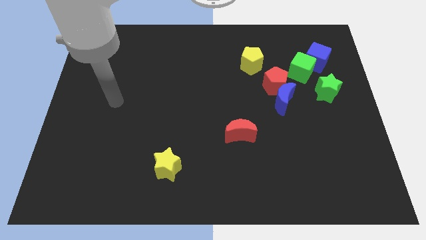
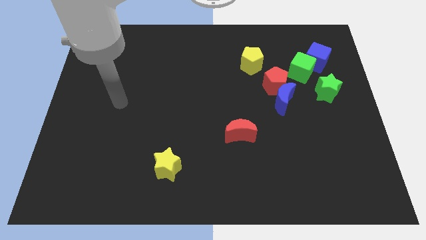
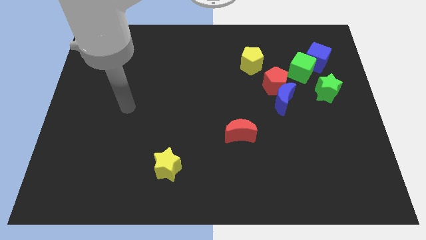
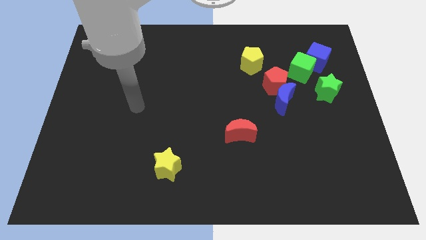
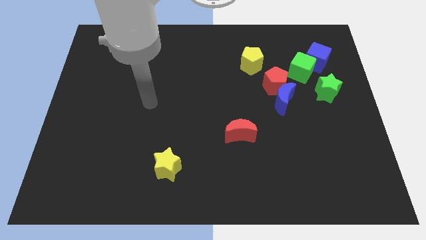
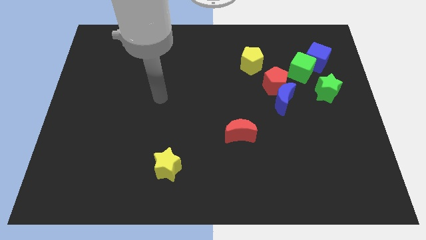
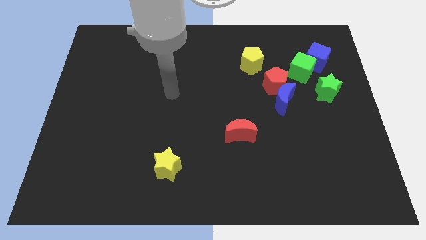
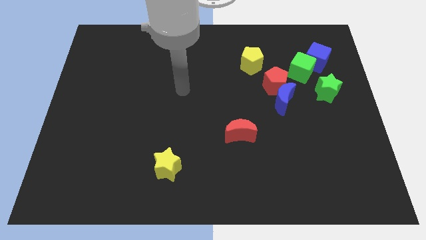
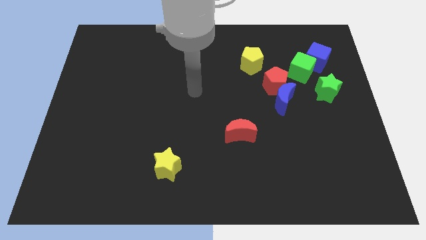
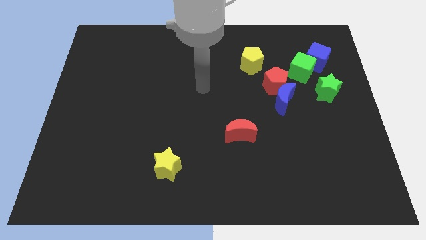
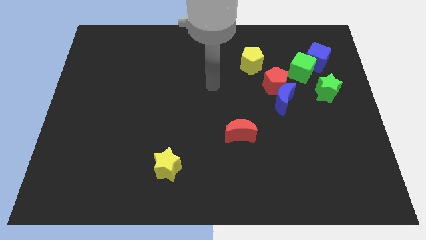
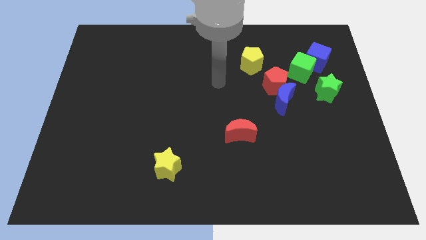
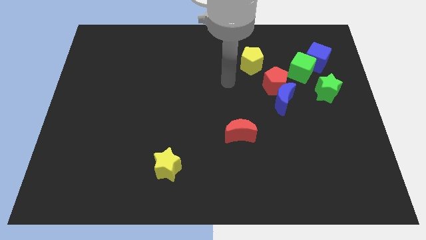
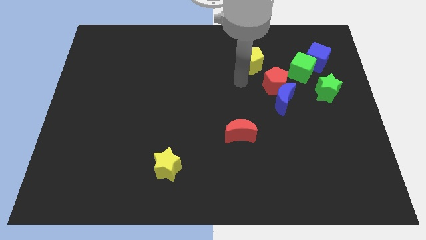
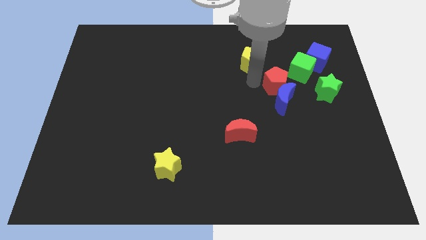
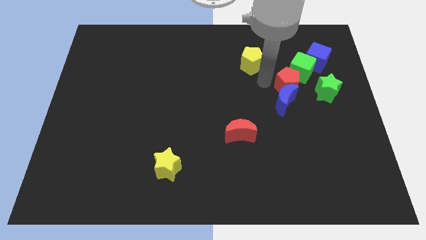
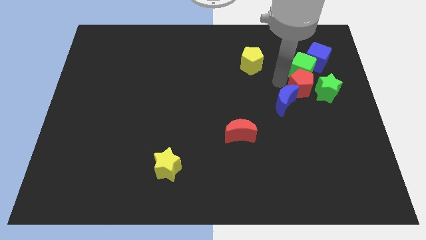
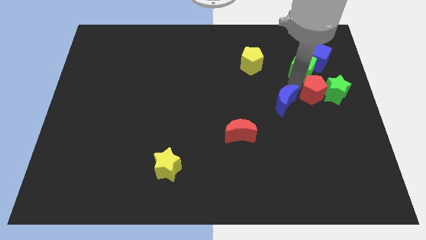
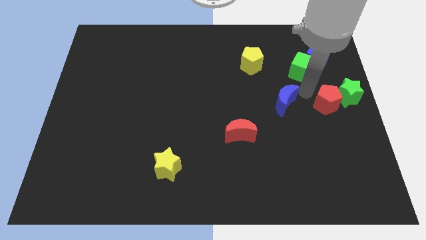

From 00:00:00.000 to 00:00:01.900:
pull the blue moon apart from the red pentagon

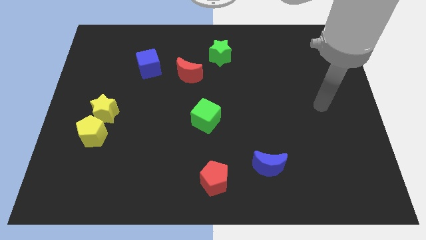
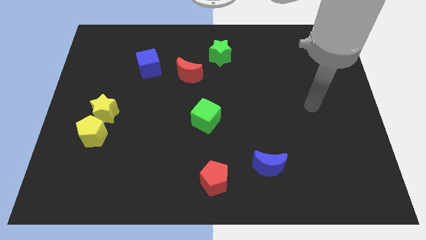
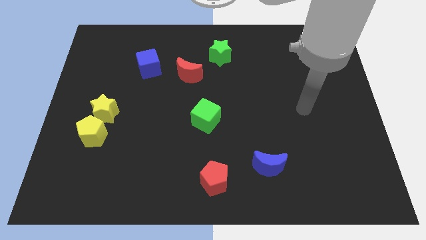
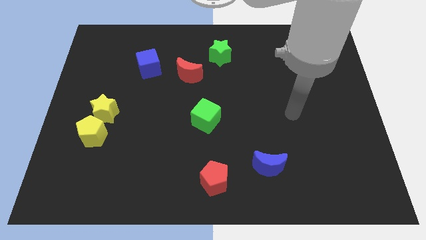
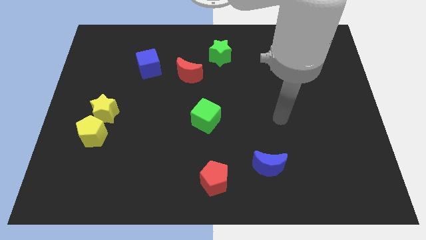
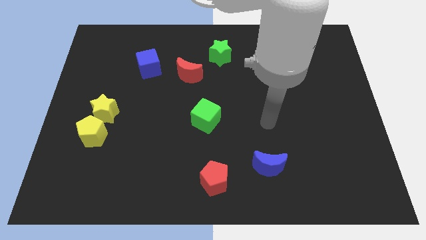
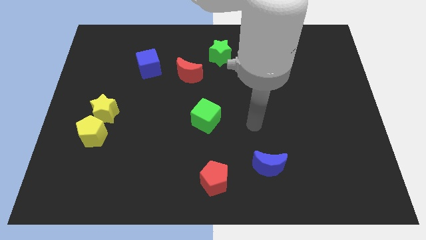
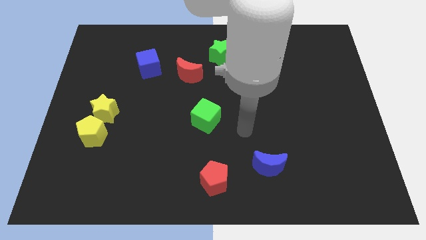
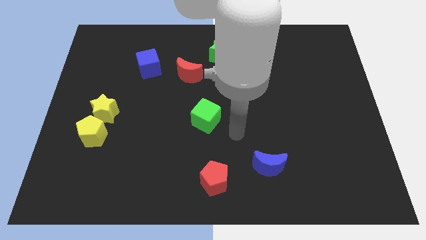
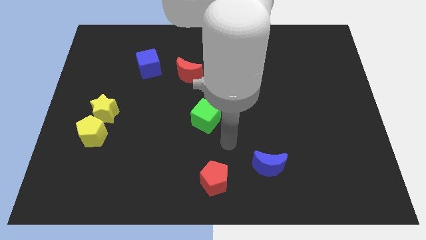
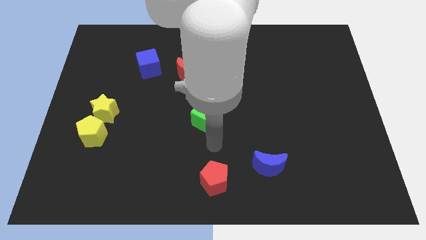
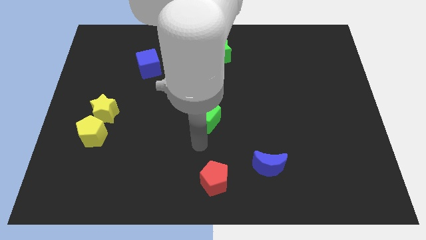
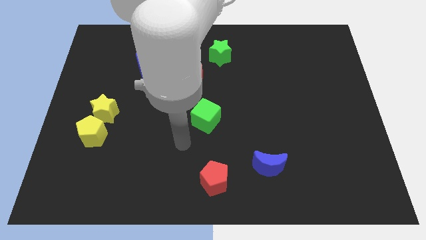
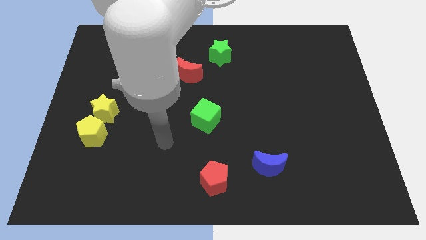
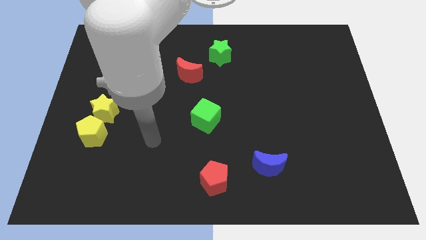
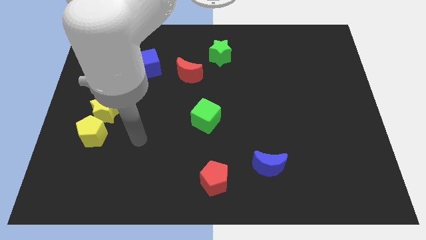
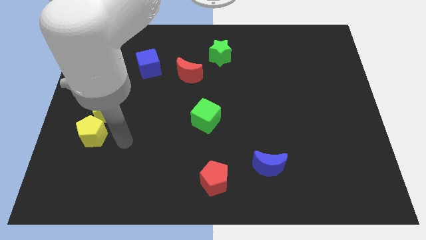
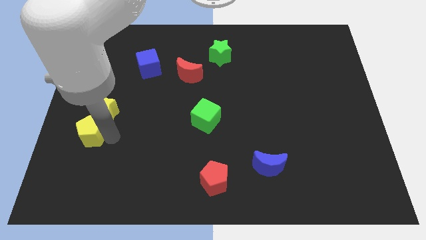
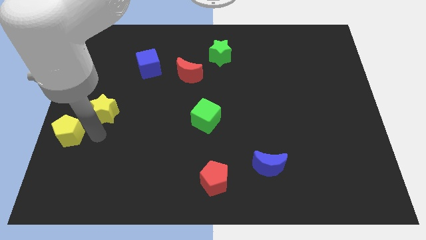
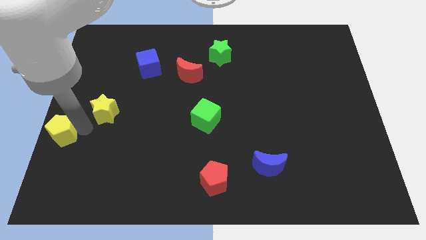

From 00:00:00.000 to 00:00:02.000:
separate the yellow star from the yellow pentagon

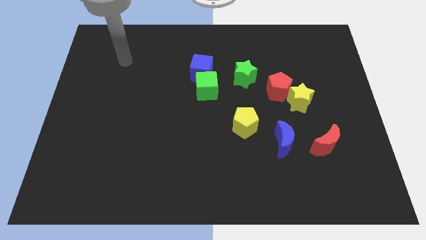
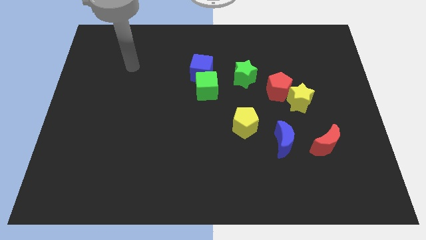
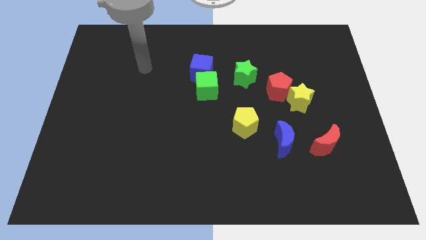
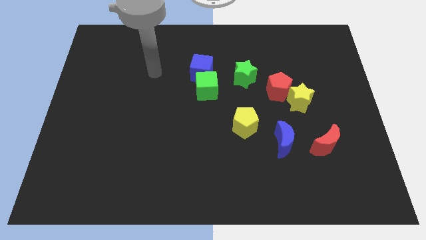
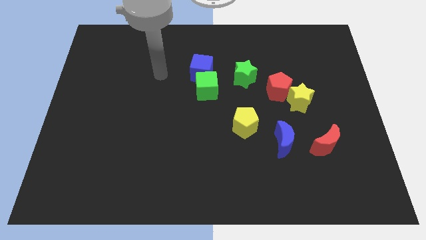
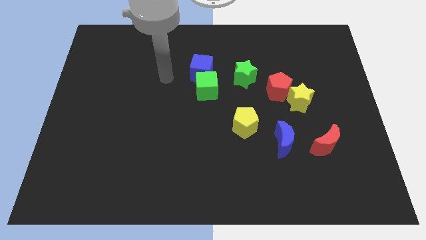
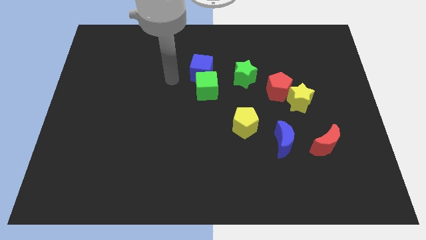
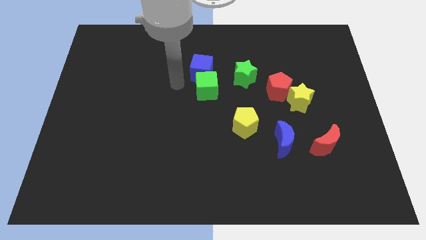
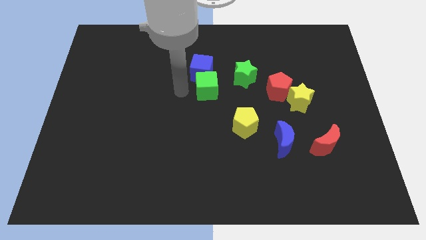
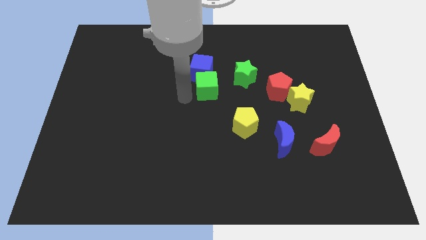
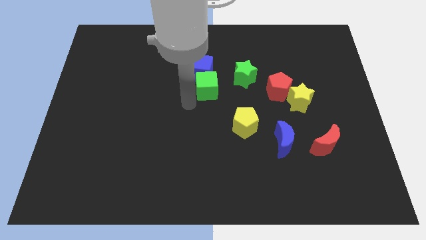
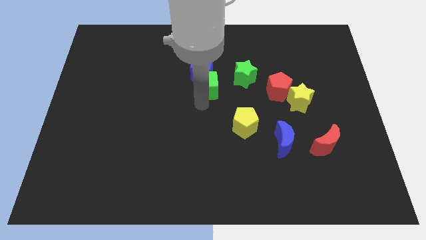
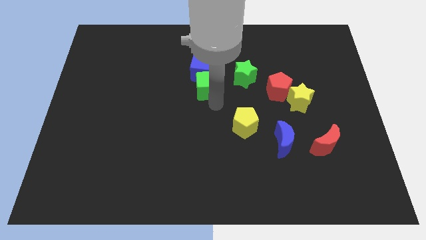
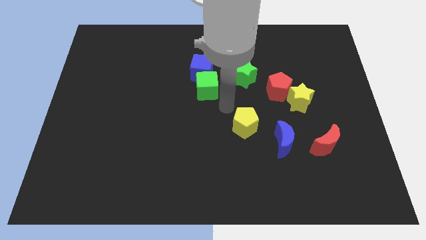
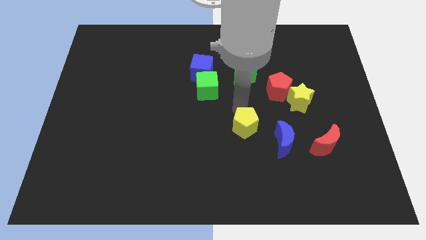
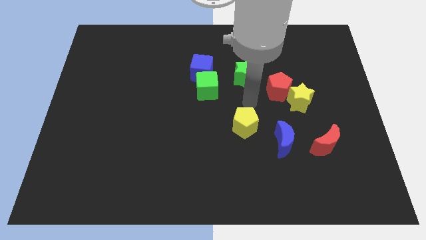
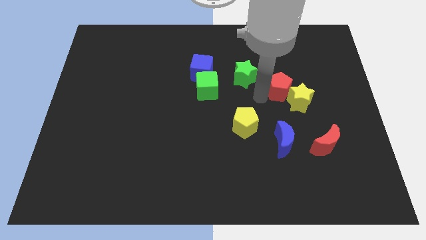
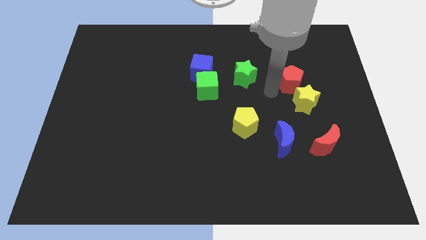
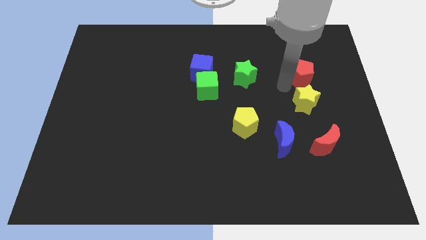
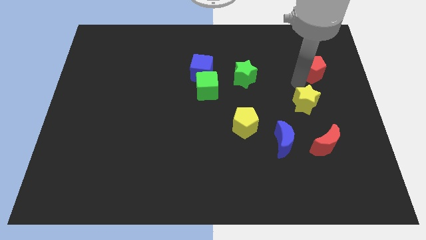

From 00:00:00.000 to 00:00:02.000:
move the yellow star away from the red pentagon

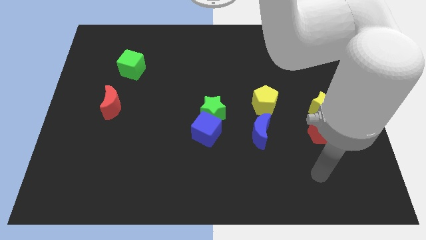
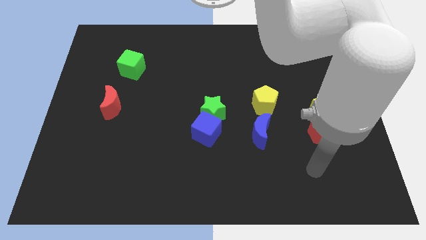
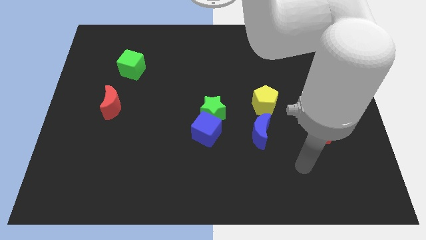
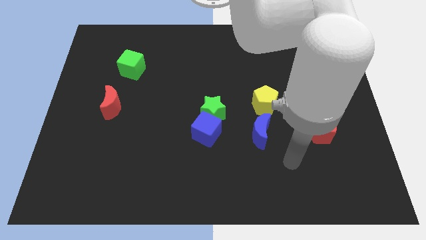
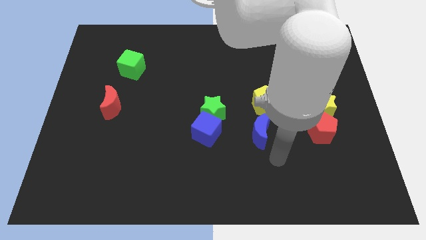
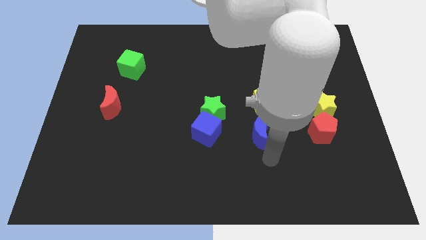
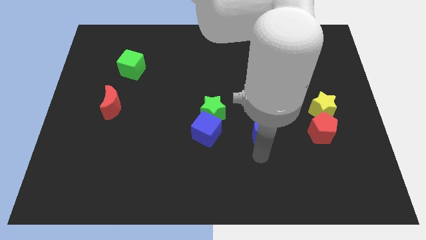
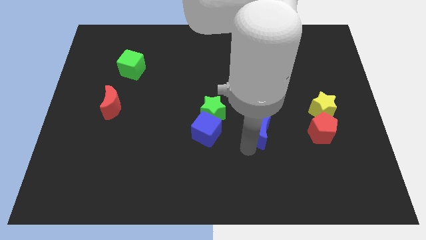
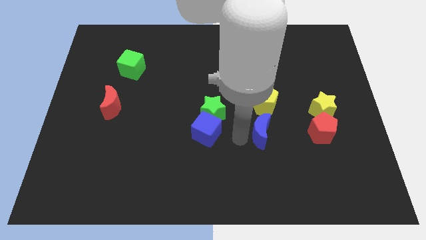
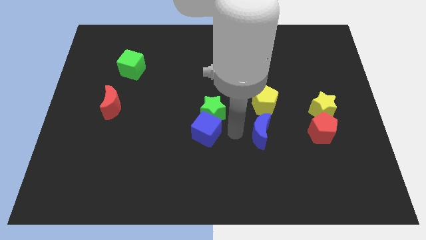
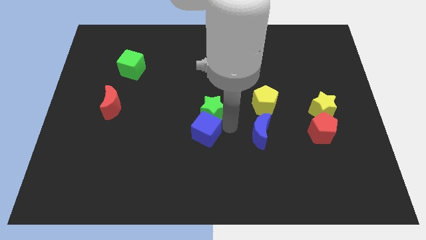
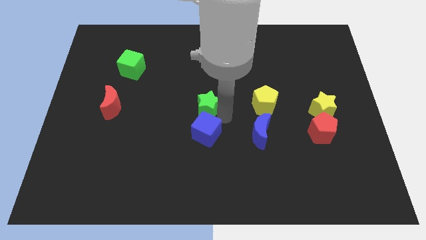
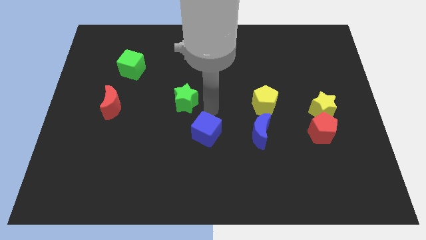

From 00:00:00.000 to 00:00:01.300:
pull the blue cube apart from the green star

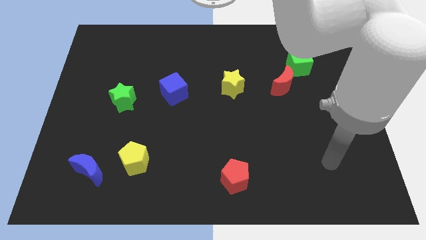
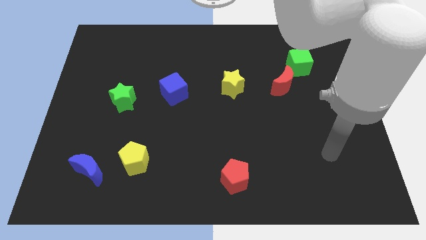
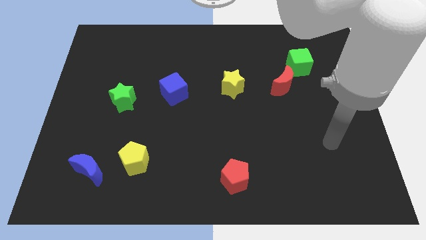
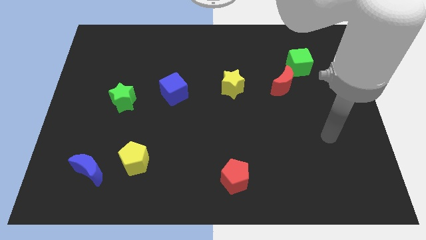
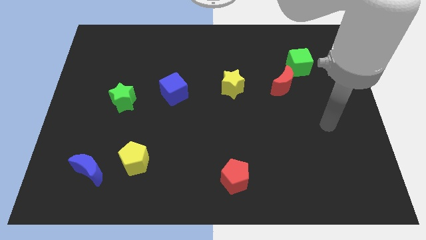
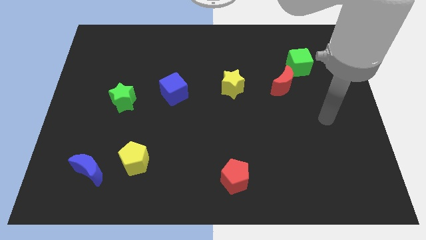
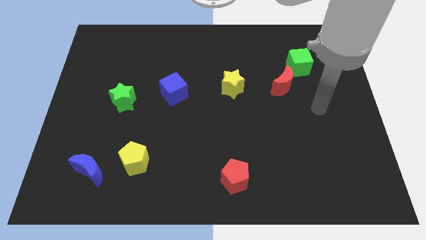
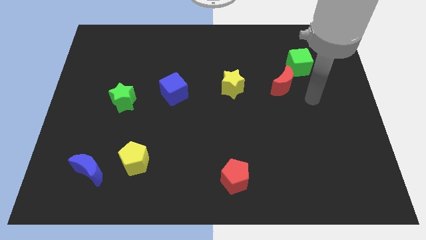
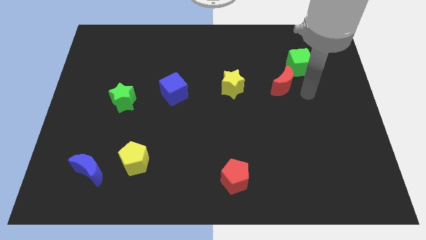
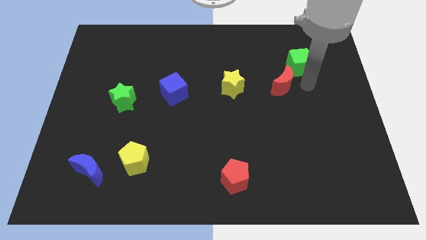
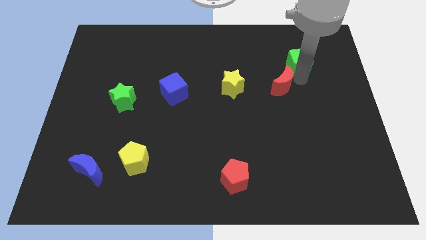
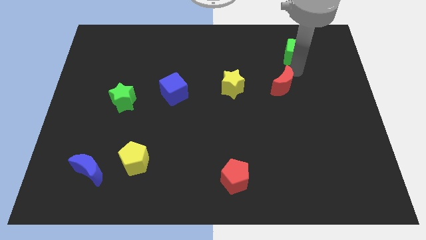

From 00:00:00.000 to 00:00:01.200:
pull the red moon apart from the green cube

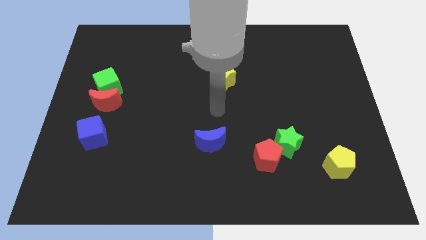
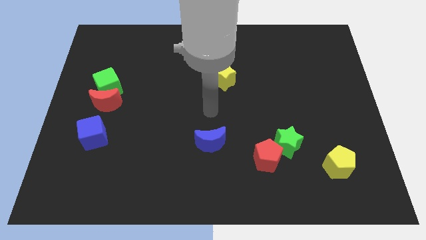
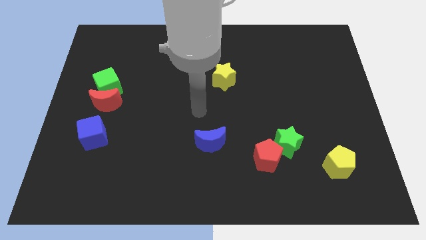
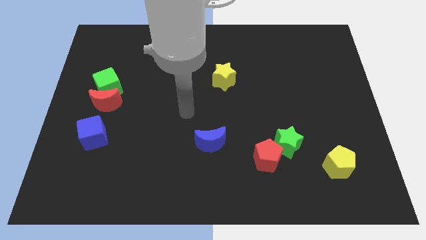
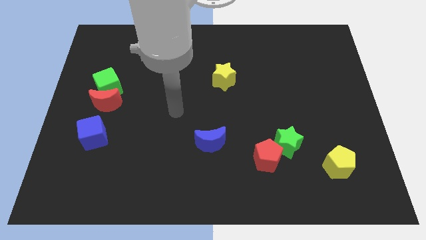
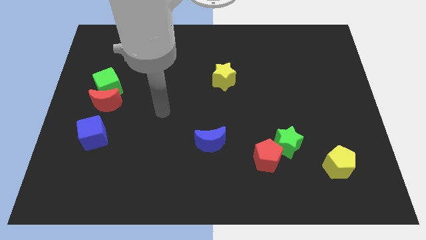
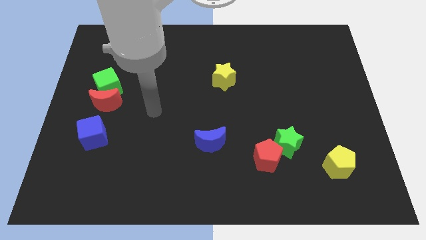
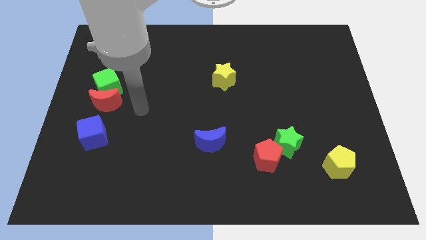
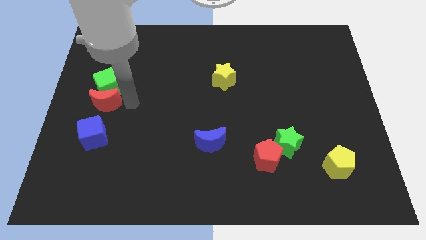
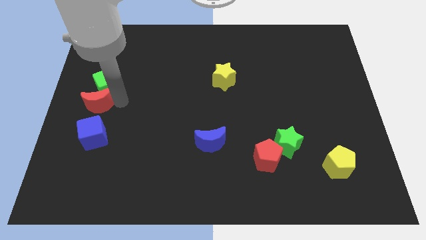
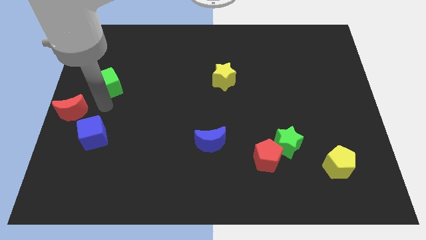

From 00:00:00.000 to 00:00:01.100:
separate the green cube from the red moon

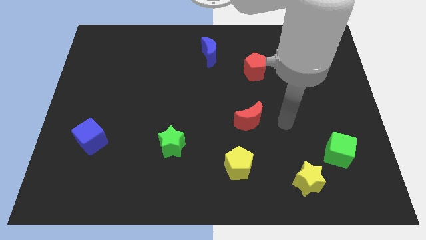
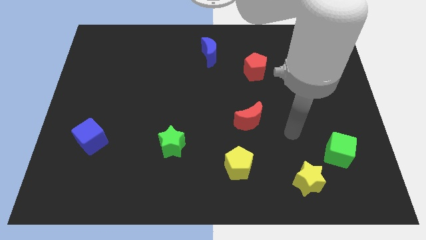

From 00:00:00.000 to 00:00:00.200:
separate the green cube from the yellow star
